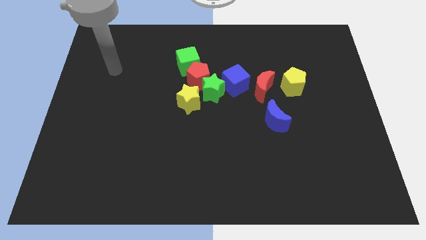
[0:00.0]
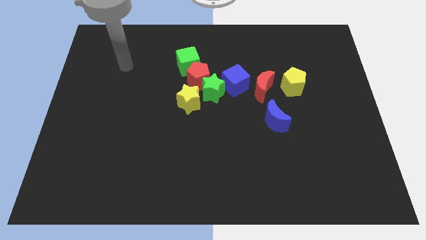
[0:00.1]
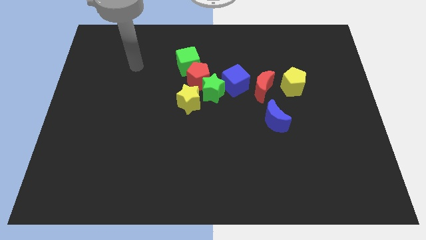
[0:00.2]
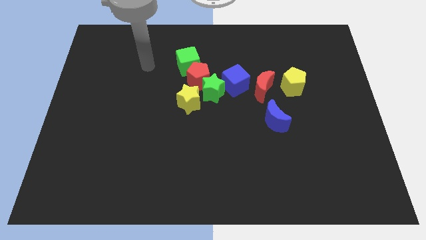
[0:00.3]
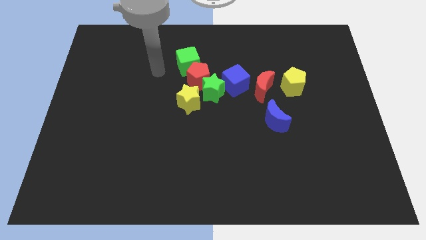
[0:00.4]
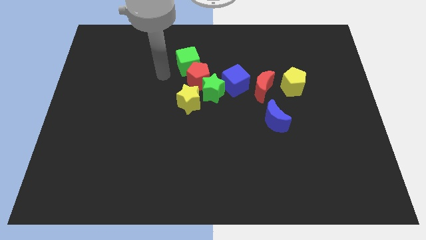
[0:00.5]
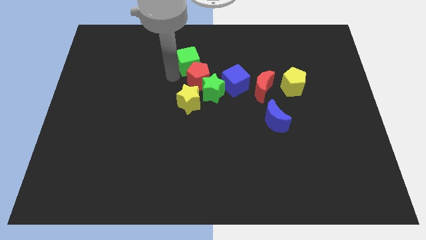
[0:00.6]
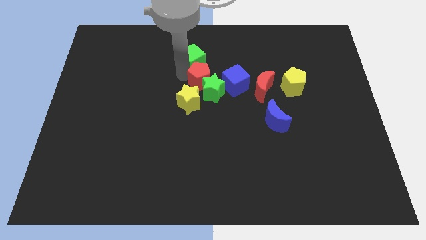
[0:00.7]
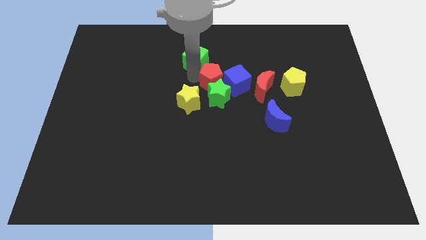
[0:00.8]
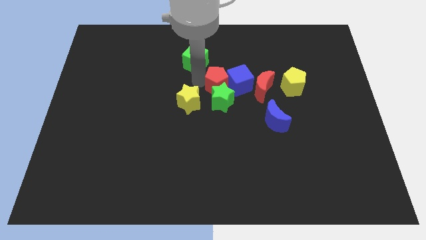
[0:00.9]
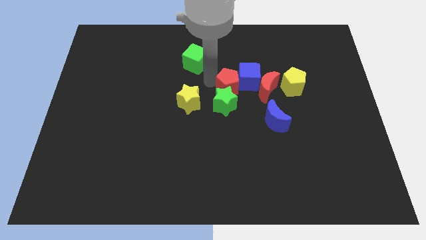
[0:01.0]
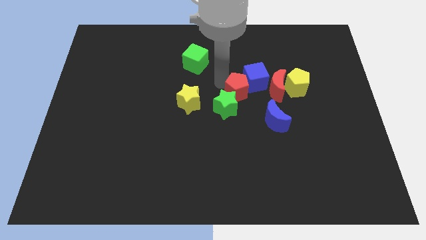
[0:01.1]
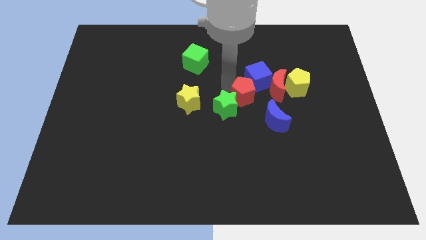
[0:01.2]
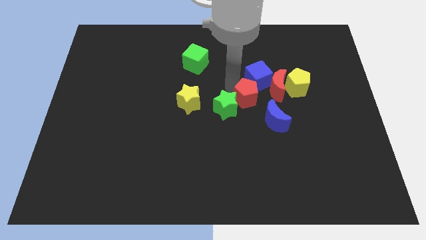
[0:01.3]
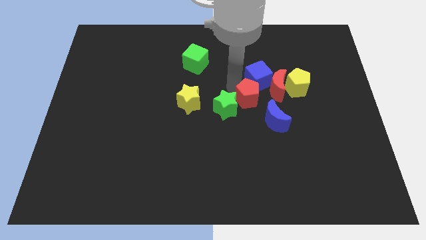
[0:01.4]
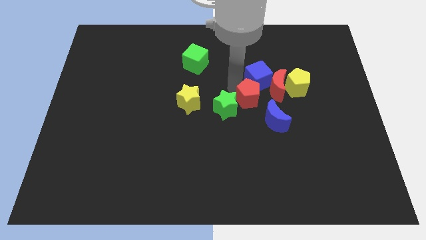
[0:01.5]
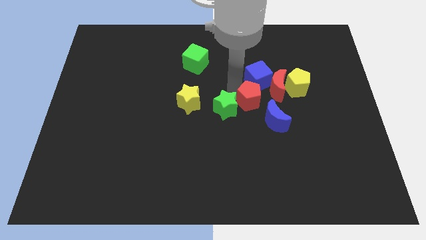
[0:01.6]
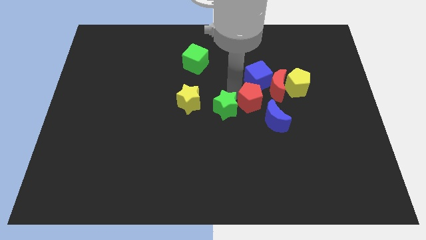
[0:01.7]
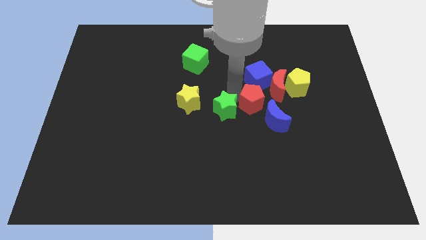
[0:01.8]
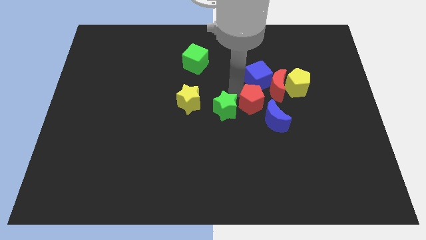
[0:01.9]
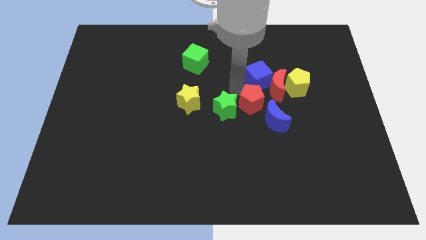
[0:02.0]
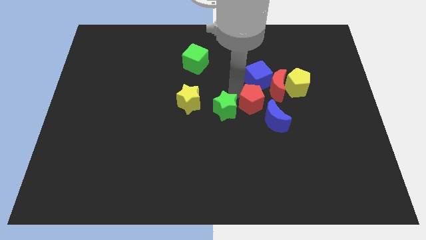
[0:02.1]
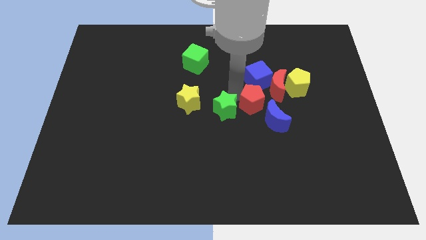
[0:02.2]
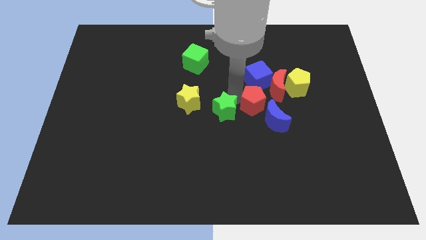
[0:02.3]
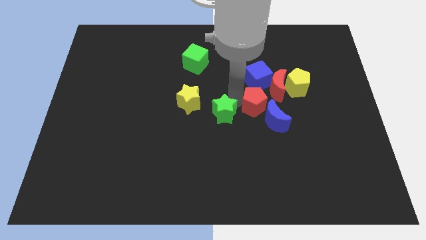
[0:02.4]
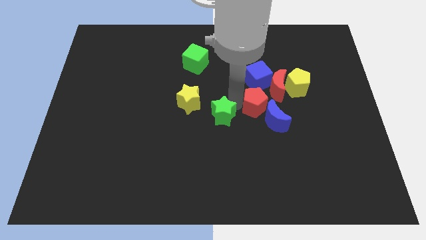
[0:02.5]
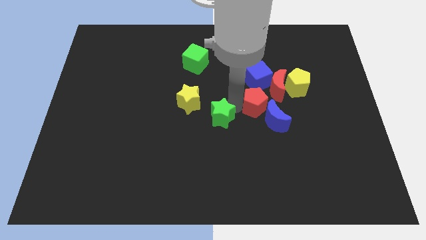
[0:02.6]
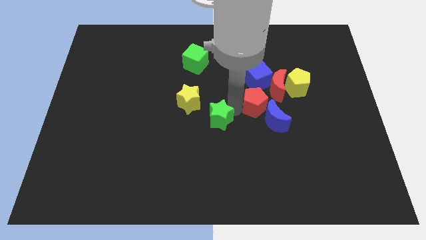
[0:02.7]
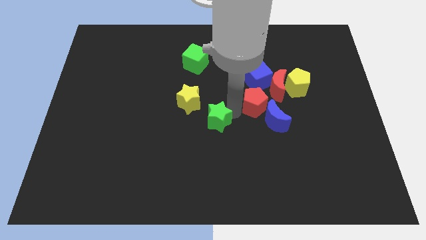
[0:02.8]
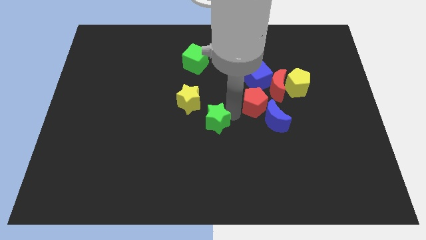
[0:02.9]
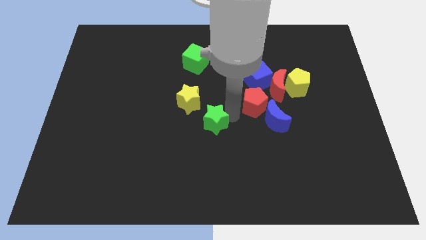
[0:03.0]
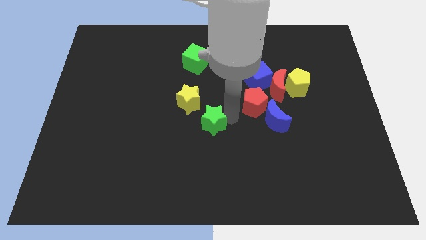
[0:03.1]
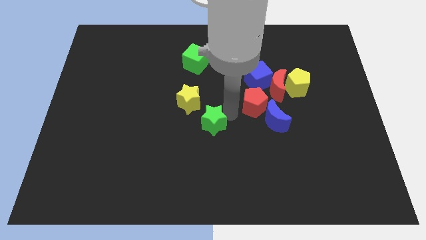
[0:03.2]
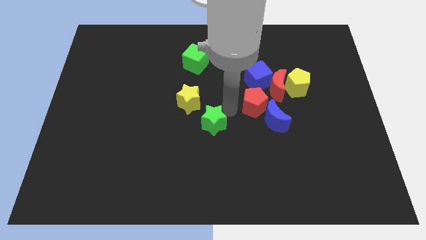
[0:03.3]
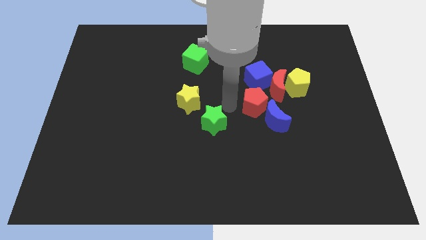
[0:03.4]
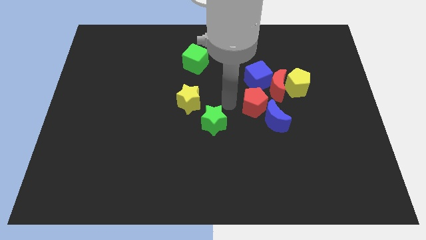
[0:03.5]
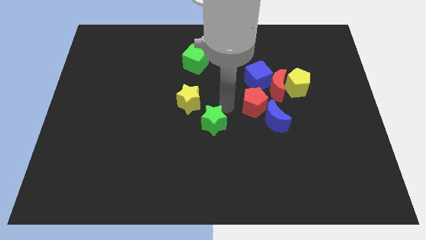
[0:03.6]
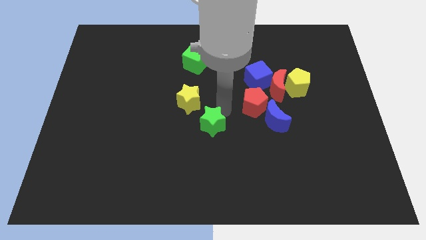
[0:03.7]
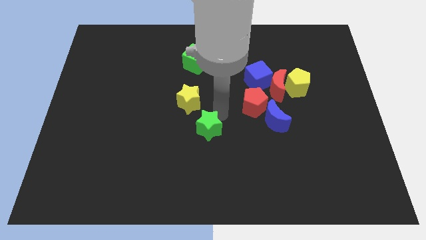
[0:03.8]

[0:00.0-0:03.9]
move the green star away from the group of blocks

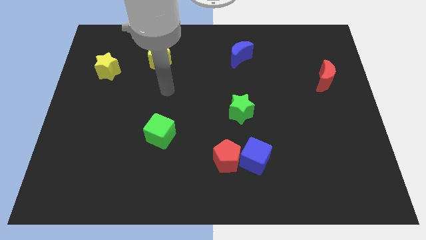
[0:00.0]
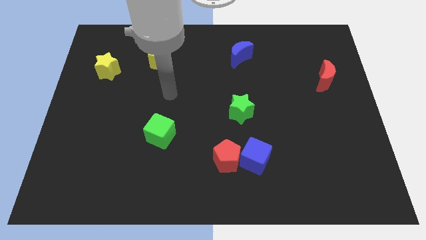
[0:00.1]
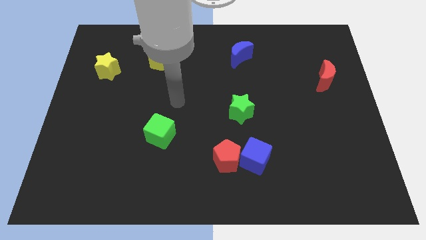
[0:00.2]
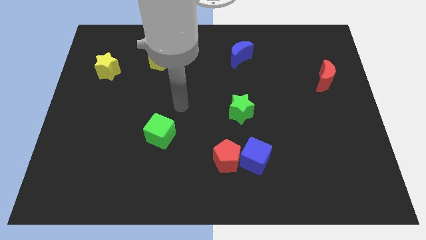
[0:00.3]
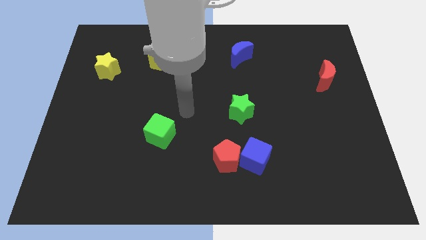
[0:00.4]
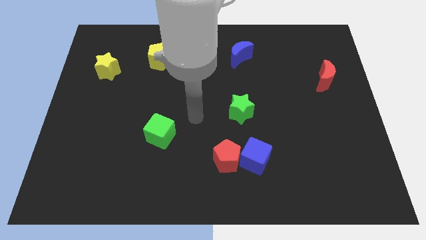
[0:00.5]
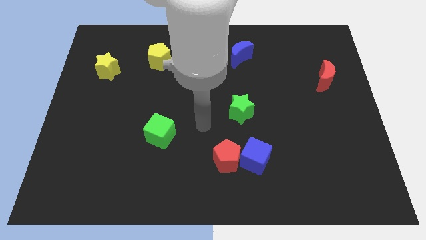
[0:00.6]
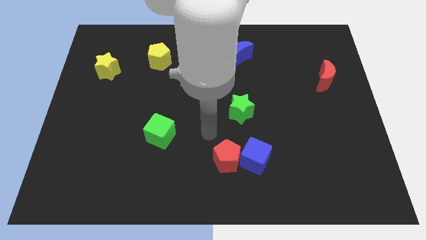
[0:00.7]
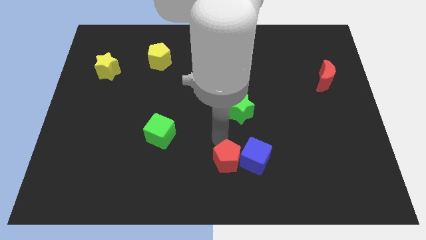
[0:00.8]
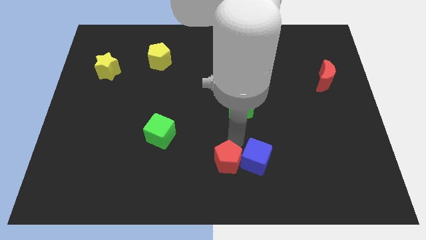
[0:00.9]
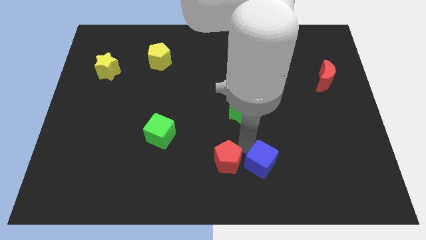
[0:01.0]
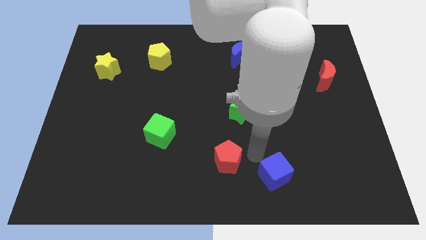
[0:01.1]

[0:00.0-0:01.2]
move the red pentagon away from the blue cube

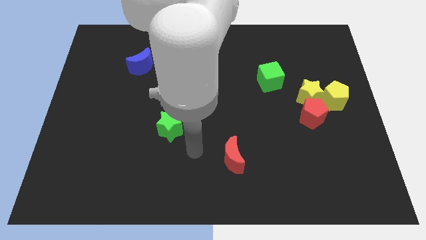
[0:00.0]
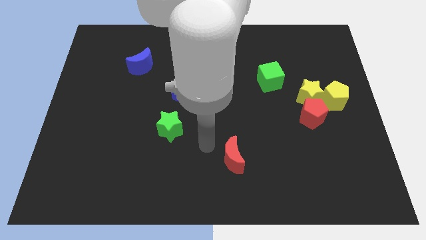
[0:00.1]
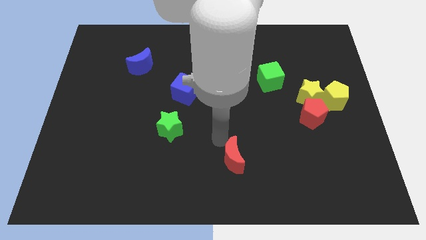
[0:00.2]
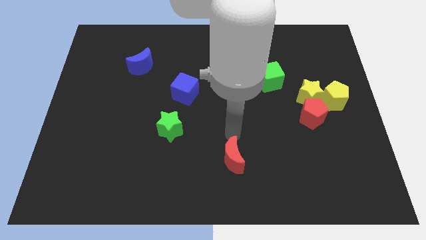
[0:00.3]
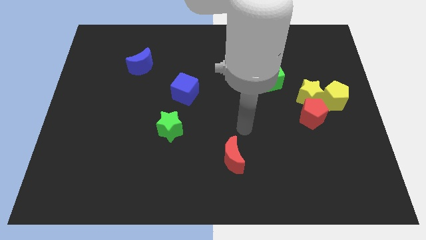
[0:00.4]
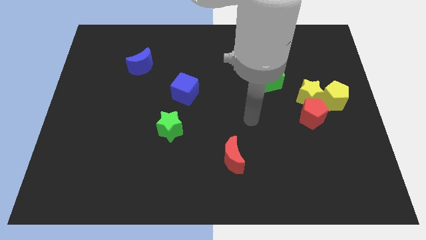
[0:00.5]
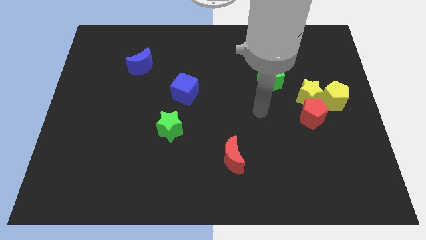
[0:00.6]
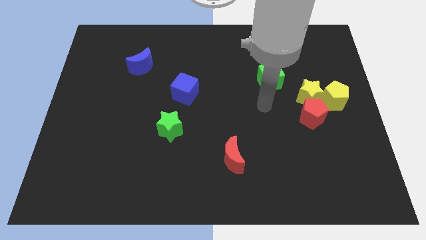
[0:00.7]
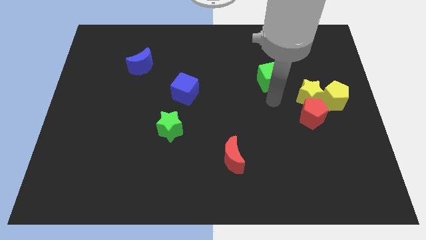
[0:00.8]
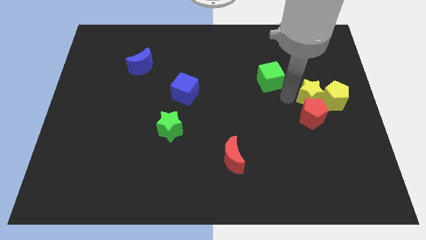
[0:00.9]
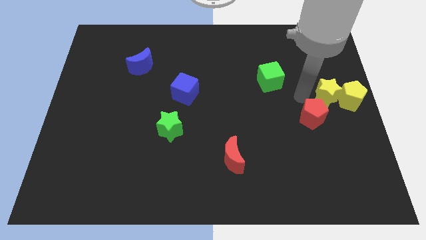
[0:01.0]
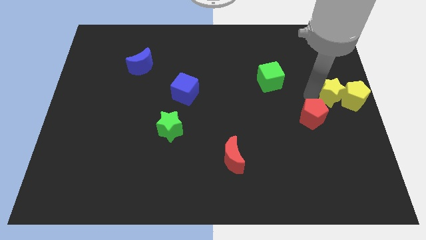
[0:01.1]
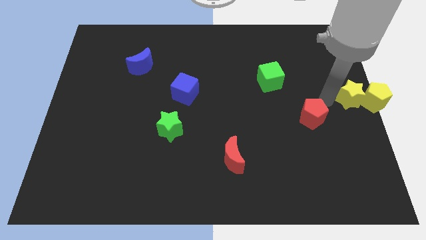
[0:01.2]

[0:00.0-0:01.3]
move the red pentagon away from the yellow star and yellow pentagon

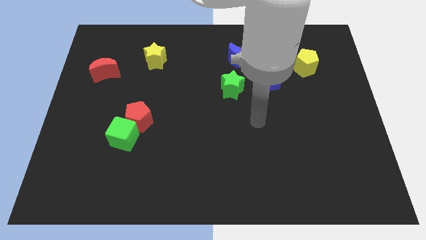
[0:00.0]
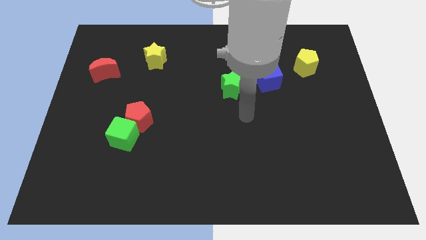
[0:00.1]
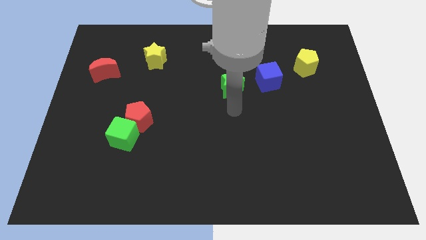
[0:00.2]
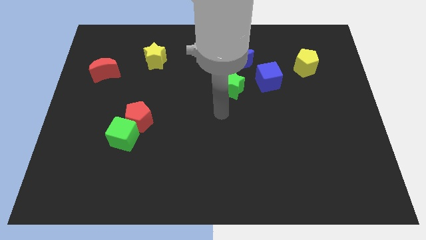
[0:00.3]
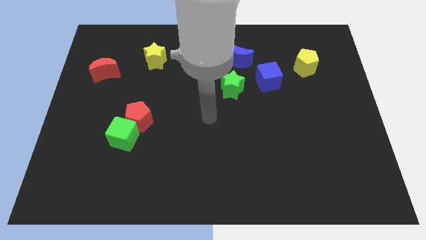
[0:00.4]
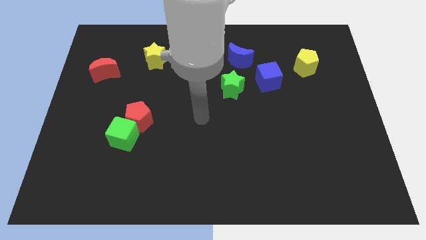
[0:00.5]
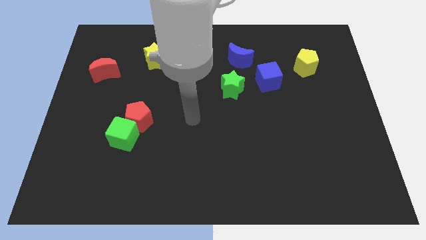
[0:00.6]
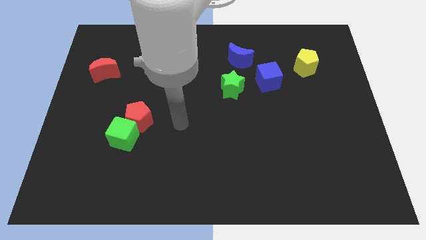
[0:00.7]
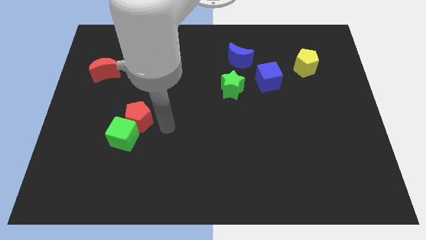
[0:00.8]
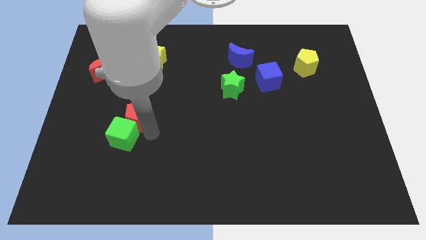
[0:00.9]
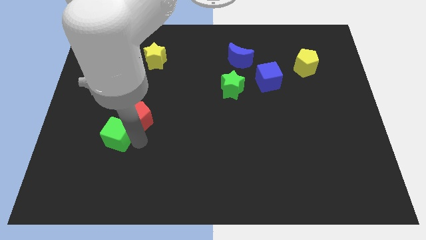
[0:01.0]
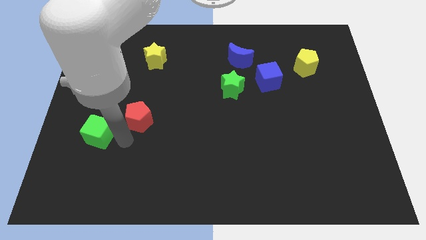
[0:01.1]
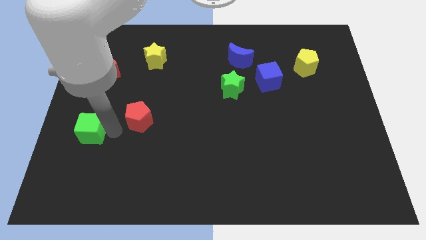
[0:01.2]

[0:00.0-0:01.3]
separate the red pentagon from the green cube

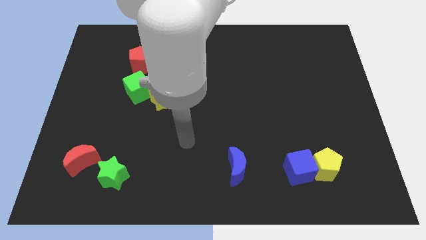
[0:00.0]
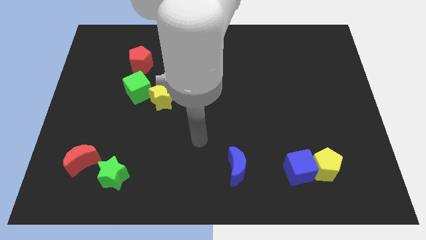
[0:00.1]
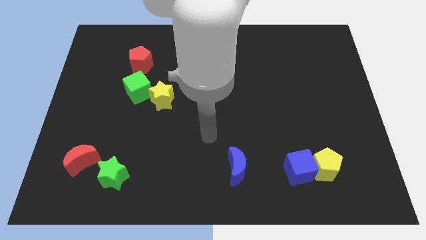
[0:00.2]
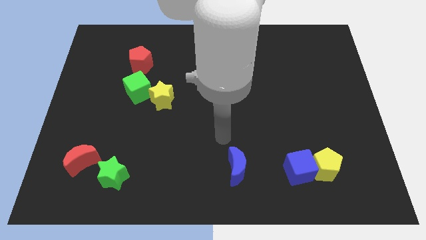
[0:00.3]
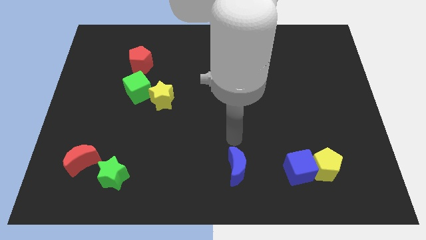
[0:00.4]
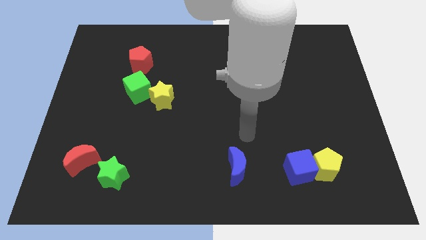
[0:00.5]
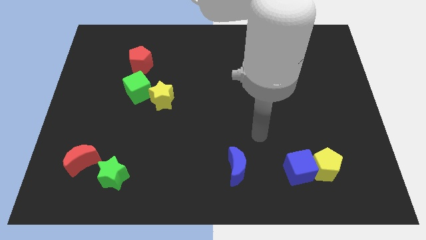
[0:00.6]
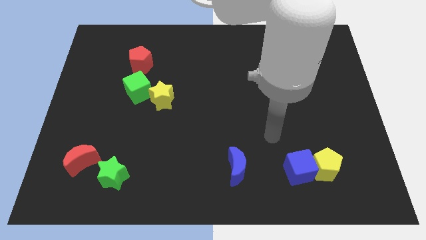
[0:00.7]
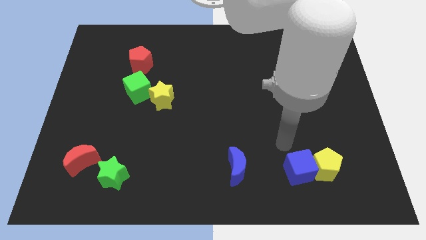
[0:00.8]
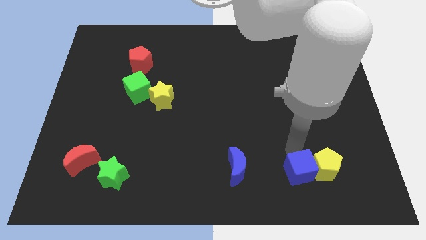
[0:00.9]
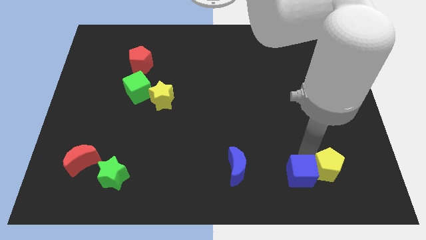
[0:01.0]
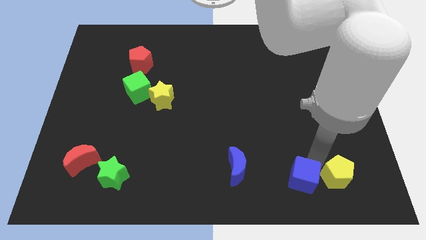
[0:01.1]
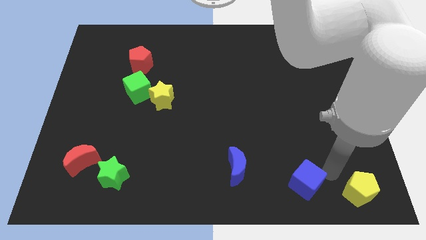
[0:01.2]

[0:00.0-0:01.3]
move the blue cube away from the yellow pentagon

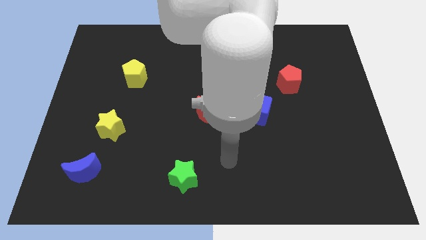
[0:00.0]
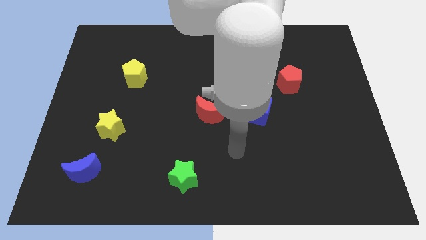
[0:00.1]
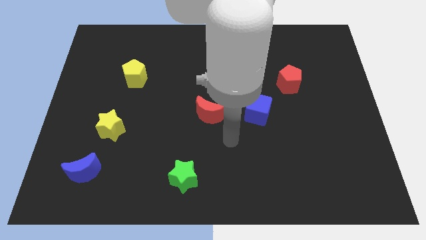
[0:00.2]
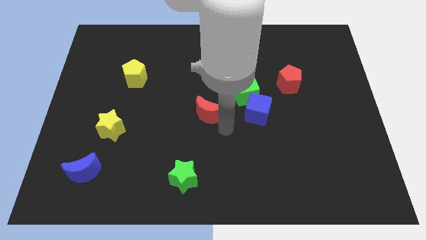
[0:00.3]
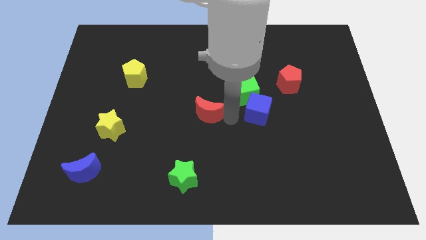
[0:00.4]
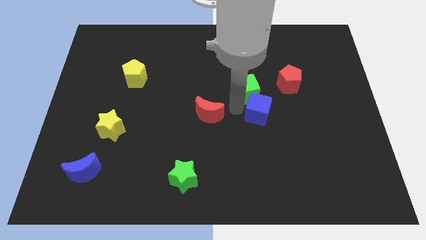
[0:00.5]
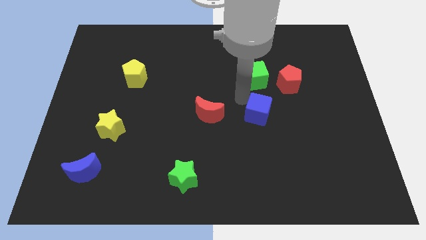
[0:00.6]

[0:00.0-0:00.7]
separate the blue cube from the green cube
